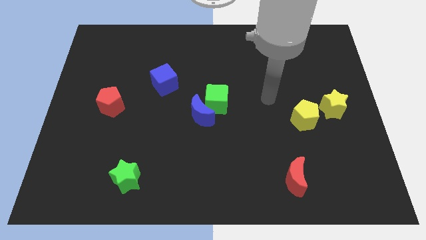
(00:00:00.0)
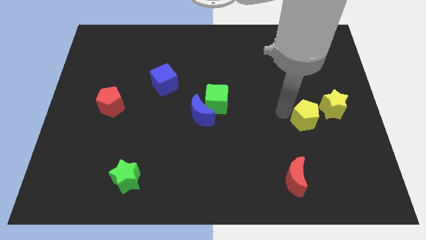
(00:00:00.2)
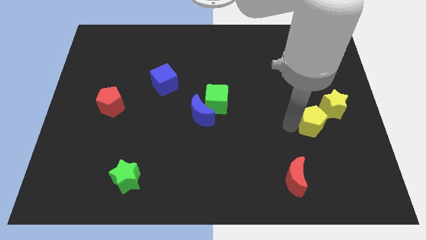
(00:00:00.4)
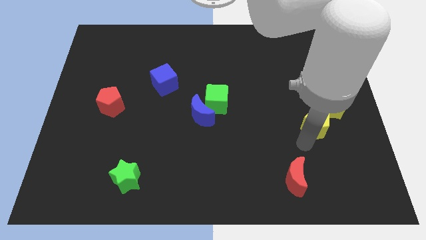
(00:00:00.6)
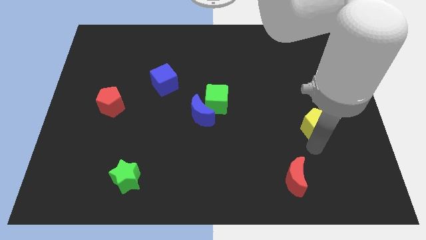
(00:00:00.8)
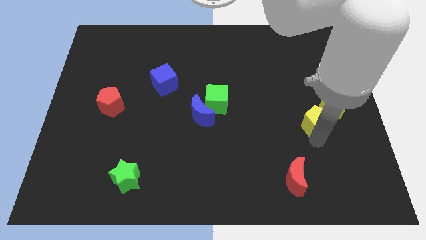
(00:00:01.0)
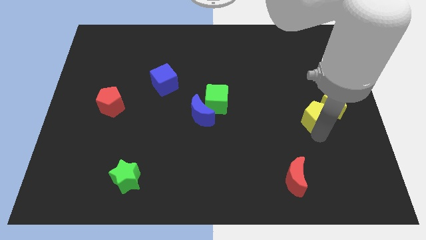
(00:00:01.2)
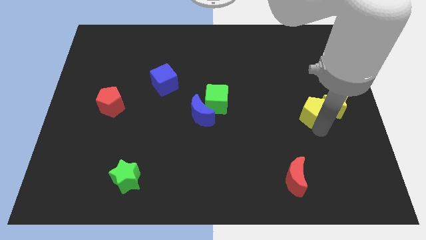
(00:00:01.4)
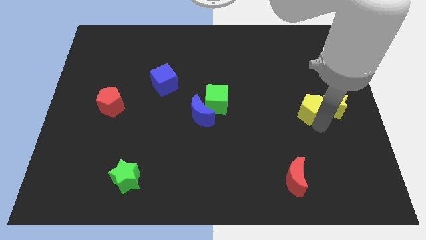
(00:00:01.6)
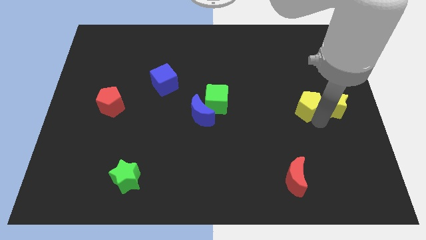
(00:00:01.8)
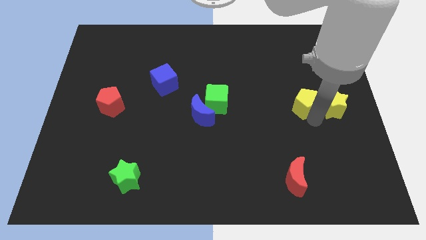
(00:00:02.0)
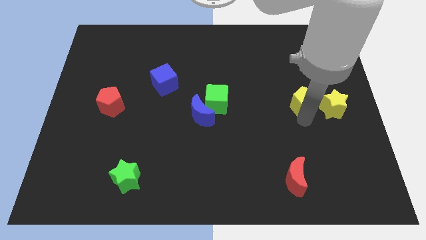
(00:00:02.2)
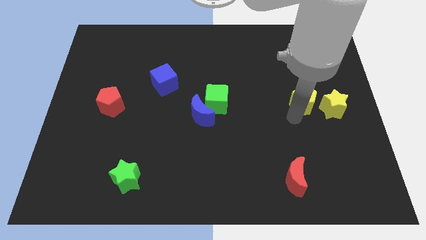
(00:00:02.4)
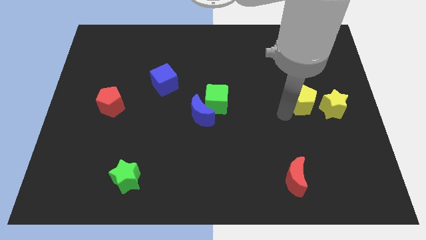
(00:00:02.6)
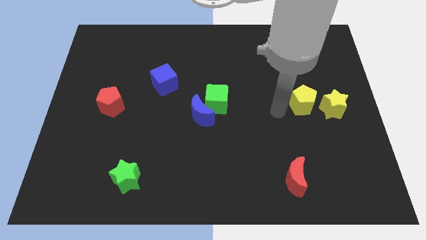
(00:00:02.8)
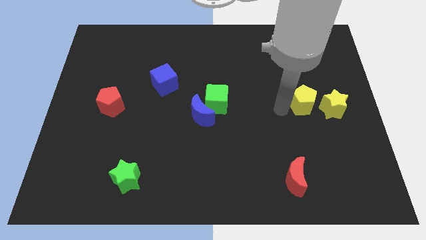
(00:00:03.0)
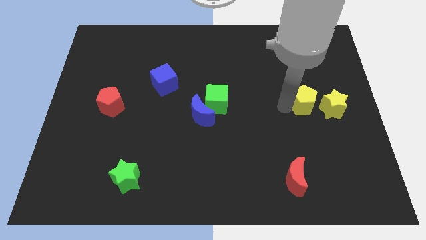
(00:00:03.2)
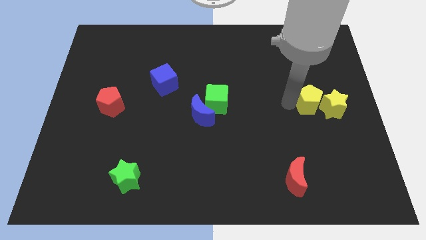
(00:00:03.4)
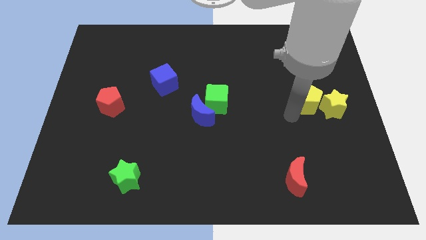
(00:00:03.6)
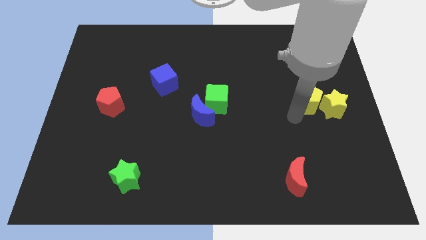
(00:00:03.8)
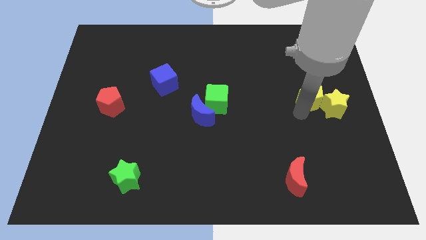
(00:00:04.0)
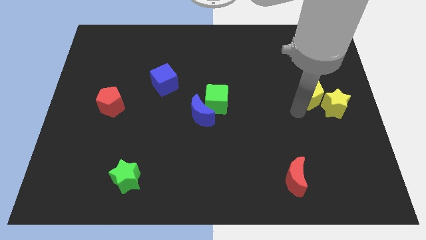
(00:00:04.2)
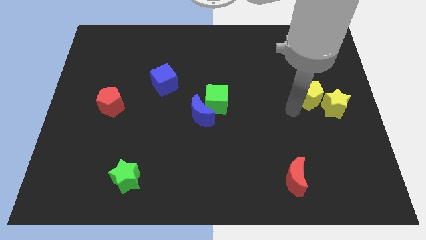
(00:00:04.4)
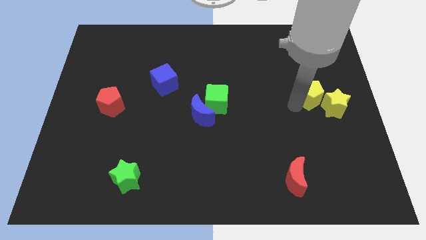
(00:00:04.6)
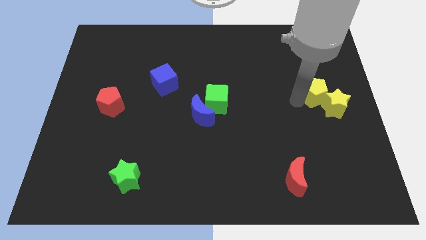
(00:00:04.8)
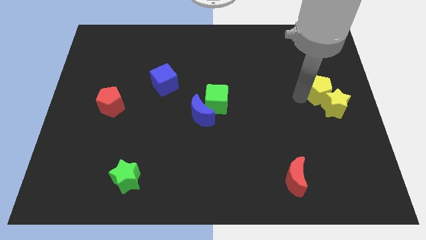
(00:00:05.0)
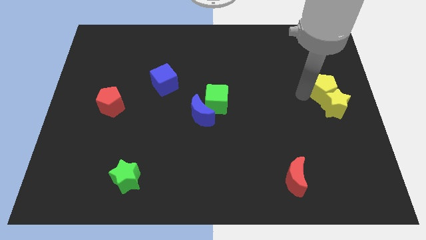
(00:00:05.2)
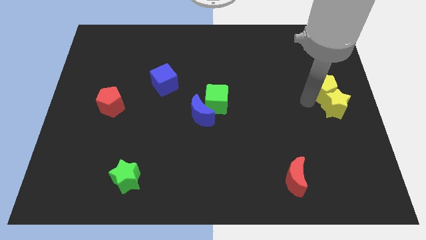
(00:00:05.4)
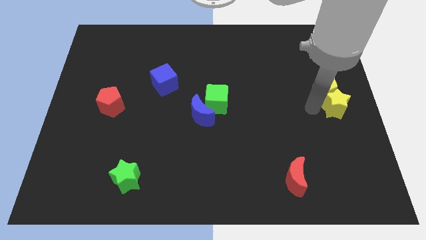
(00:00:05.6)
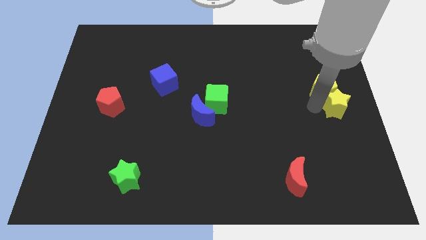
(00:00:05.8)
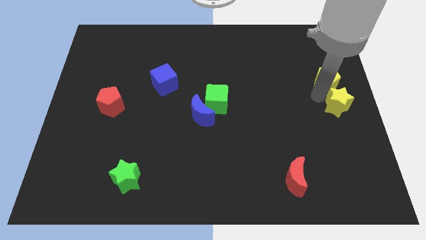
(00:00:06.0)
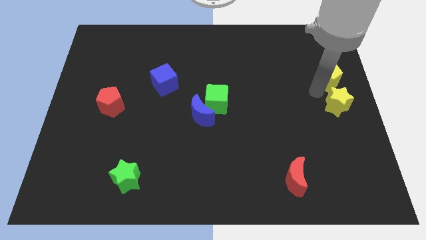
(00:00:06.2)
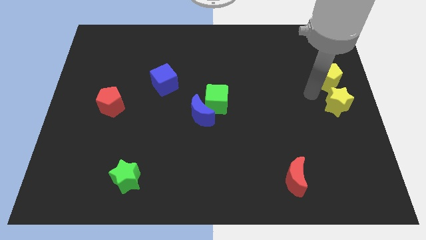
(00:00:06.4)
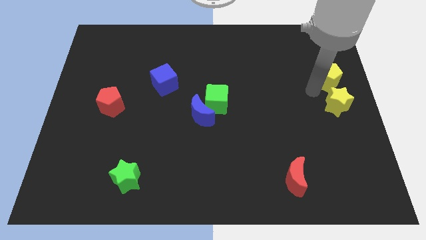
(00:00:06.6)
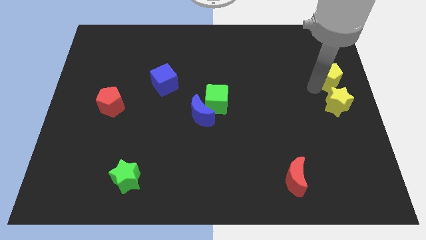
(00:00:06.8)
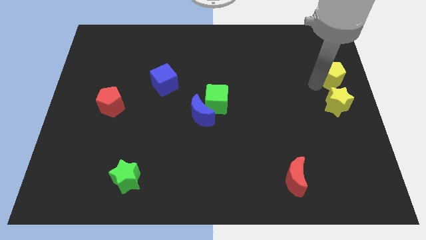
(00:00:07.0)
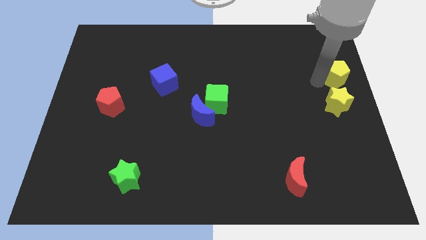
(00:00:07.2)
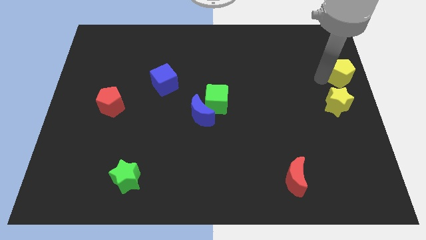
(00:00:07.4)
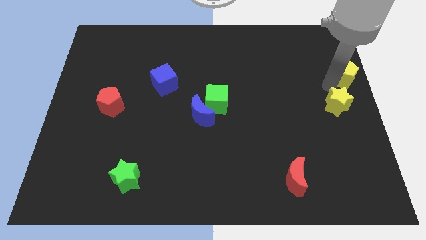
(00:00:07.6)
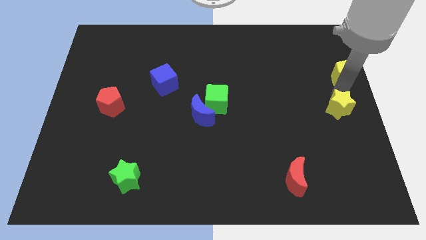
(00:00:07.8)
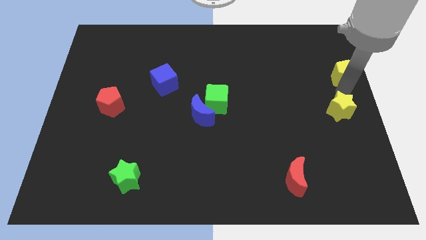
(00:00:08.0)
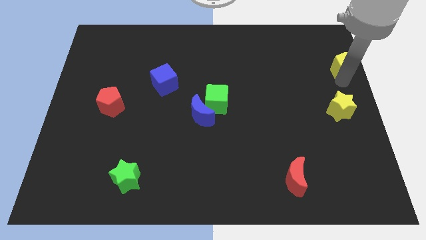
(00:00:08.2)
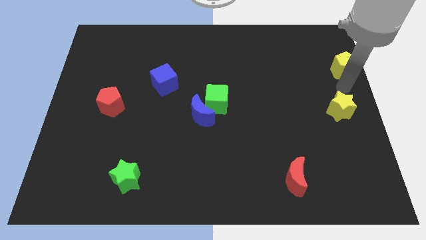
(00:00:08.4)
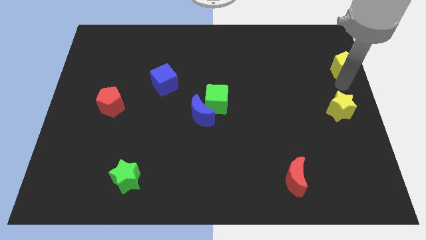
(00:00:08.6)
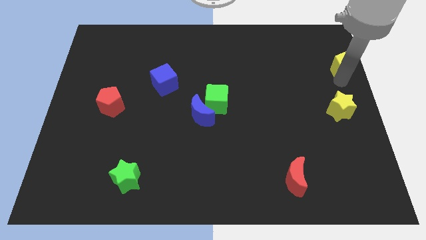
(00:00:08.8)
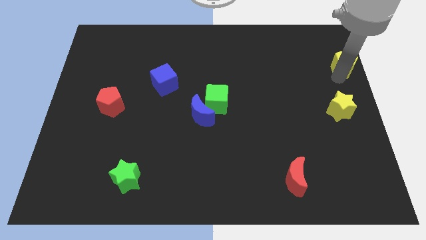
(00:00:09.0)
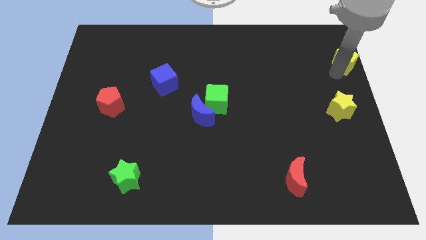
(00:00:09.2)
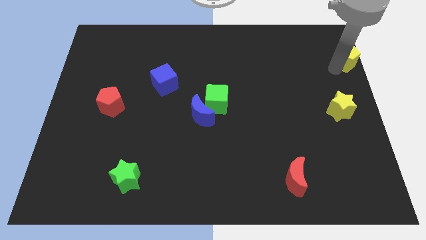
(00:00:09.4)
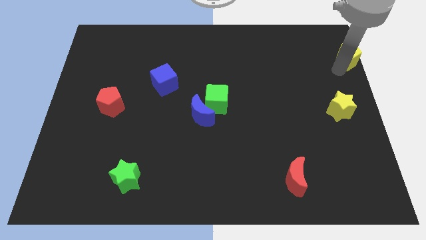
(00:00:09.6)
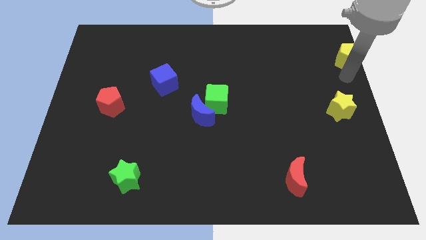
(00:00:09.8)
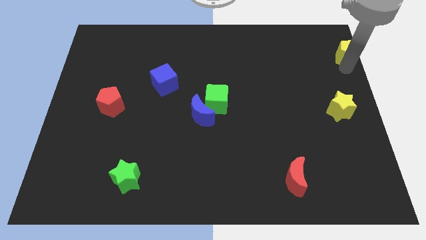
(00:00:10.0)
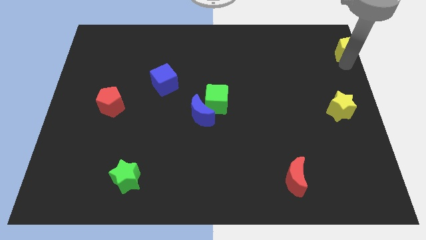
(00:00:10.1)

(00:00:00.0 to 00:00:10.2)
move the yellow pentagon to the top right
